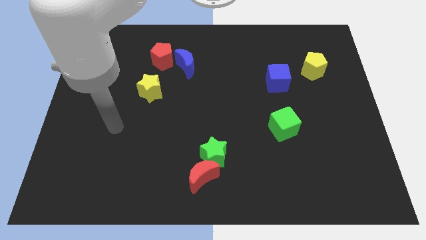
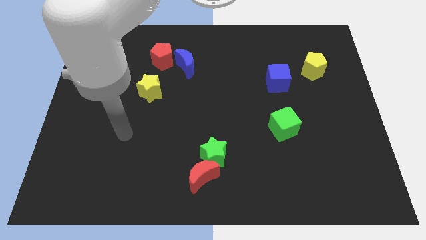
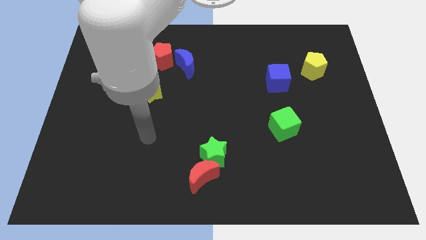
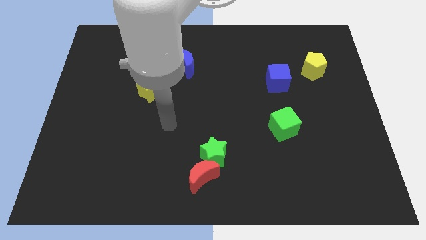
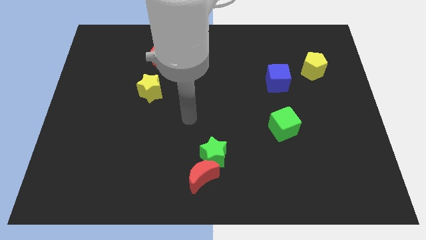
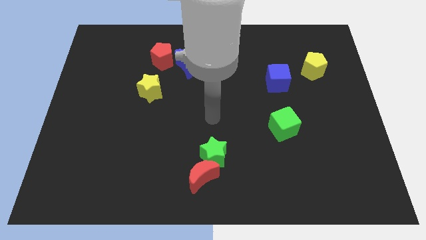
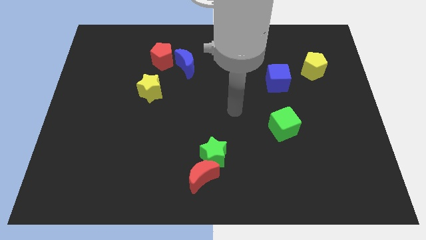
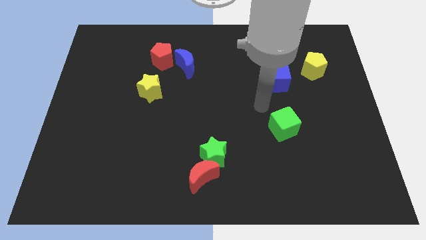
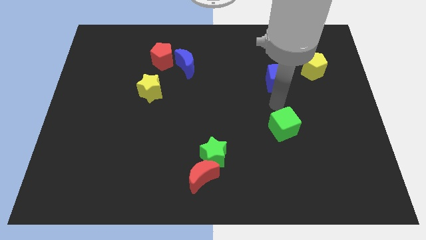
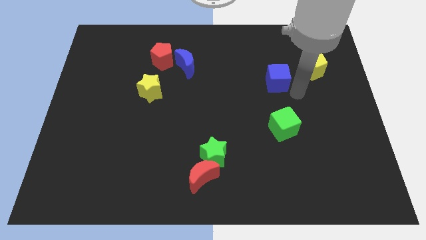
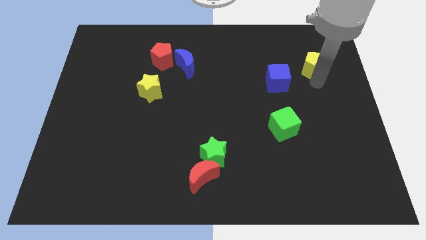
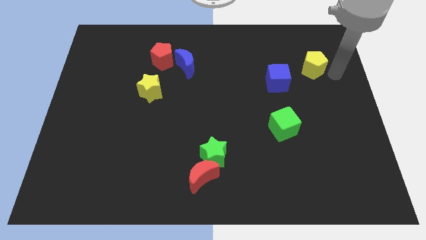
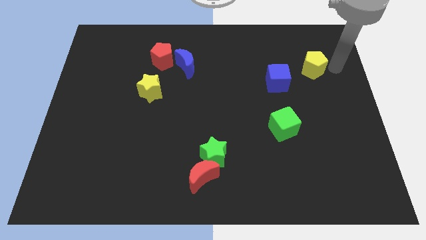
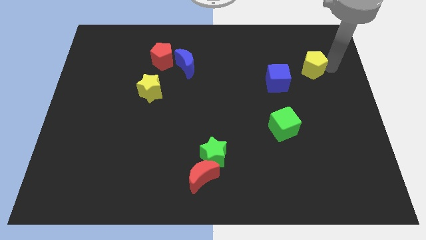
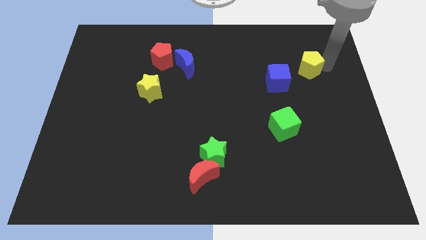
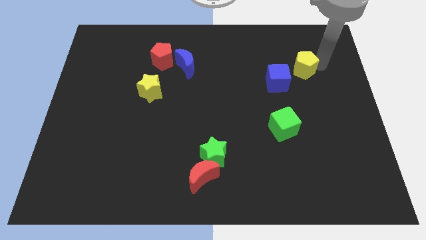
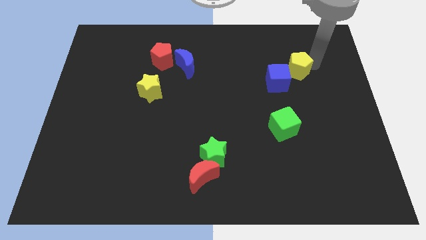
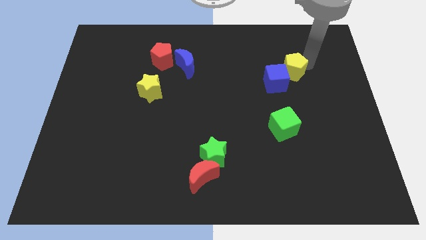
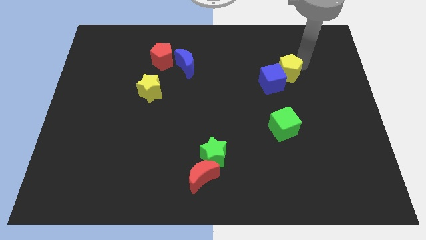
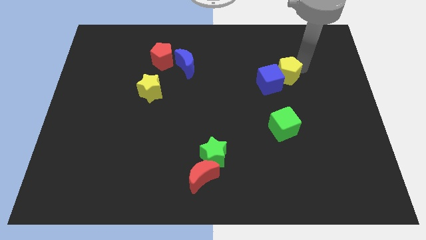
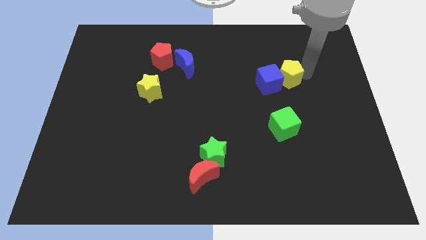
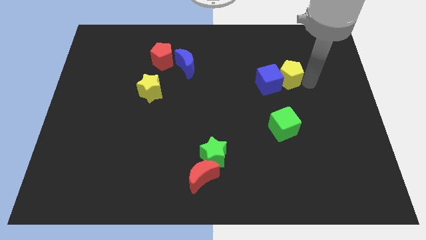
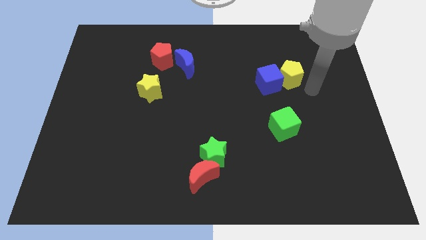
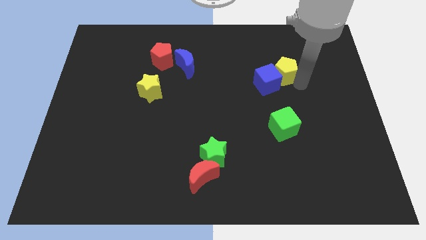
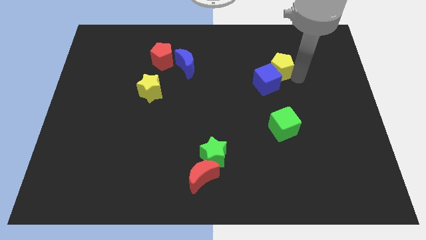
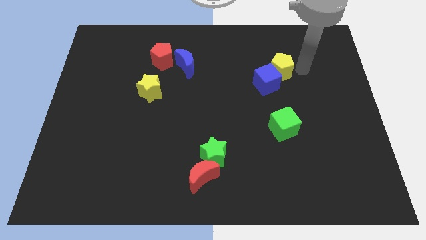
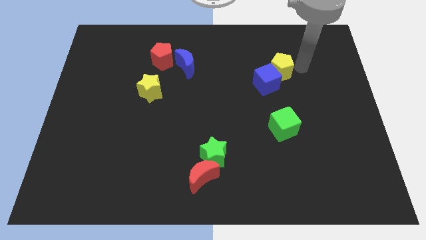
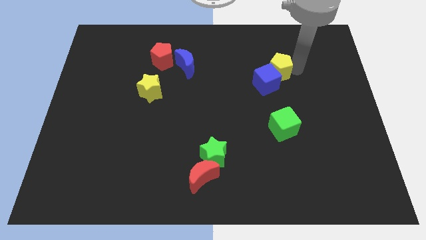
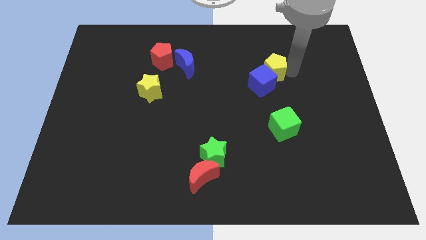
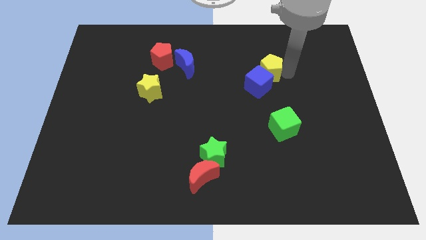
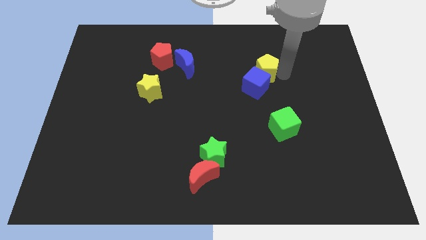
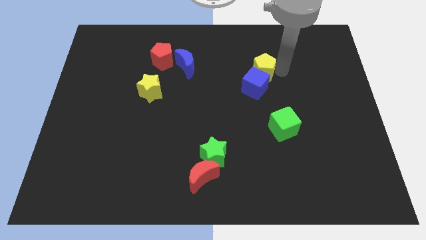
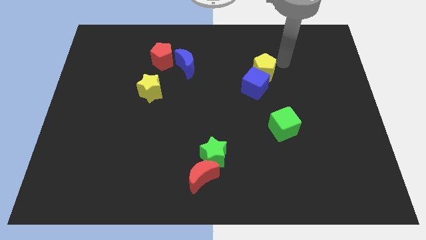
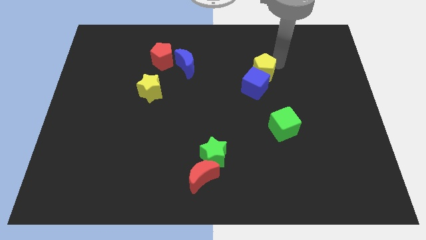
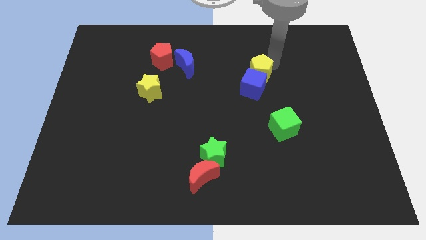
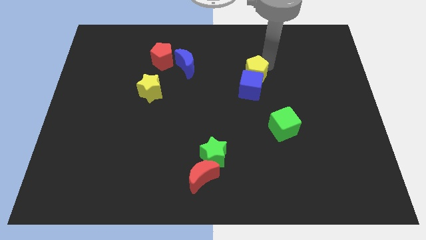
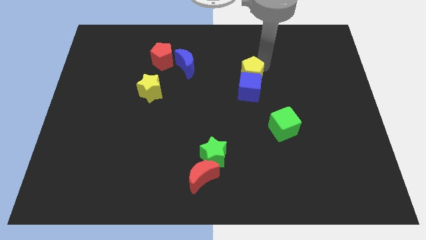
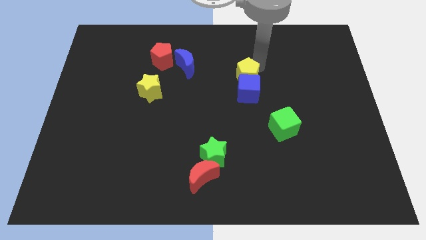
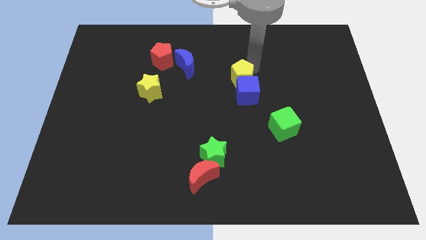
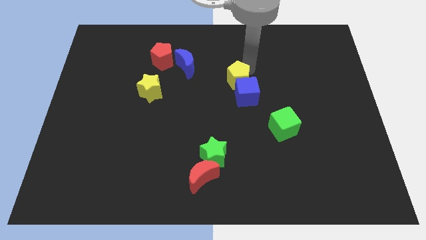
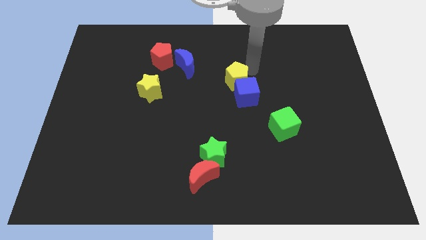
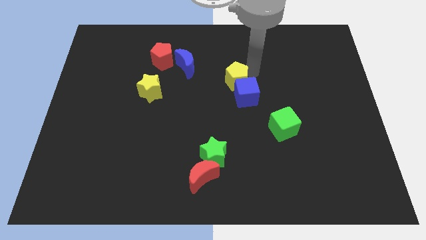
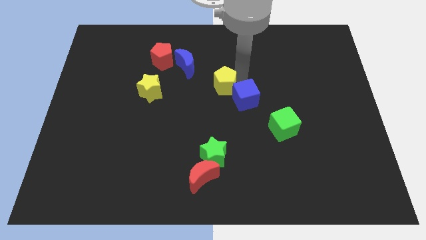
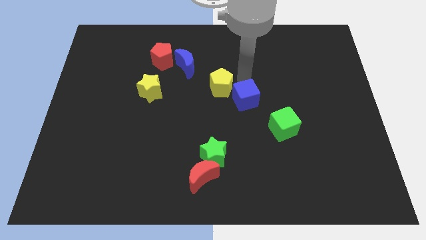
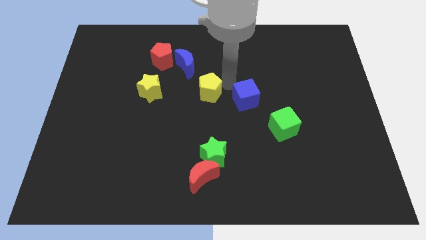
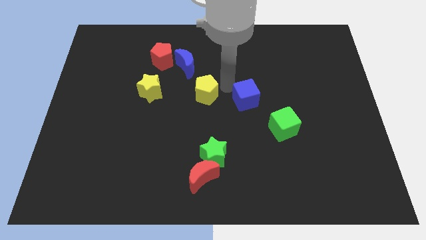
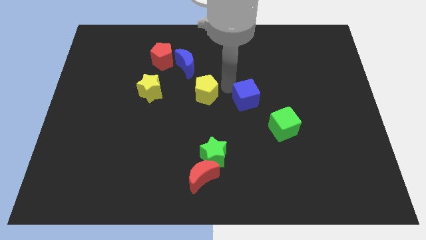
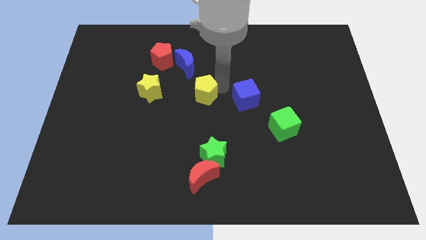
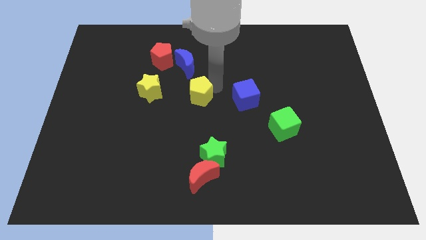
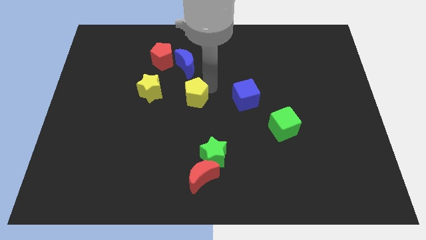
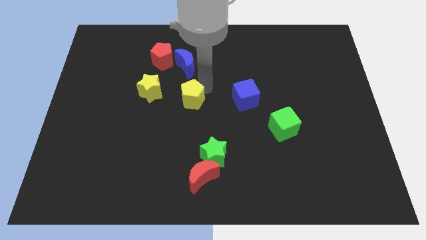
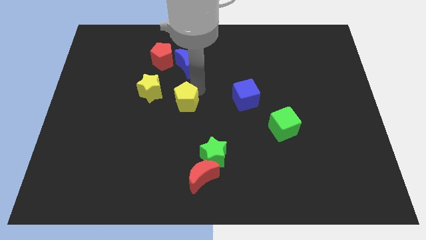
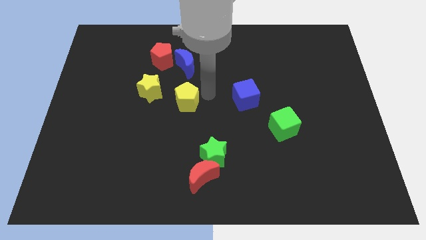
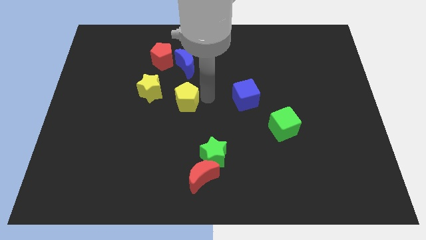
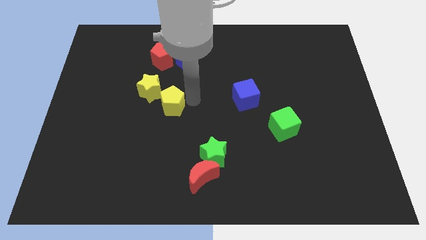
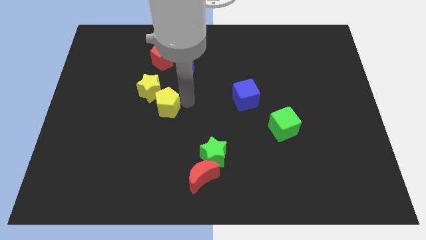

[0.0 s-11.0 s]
move the yellow pentagon below the red pentagon

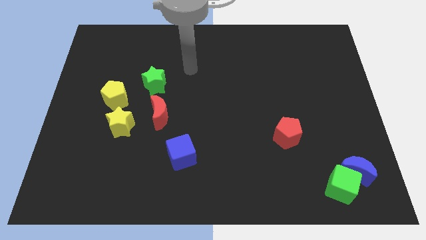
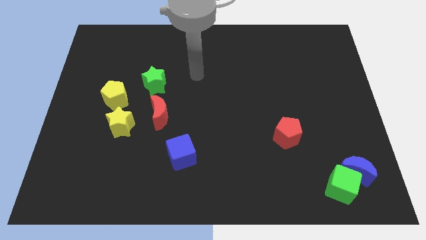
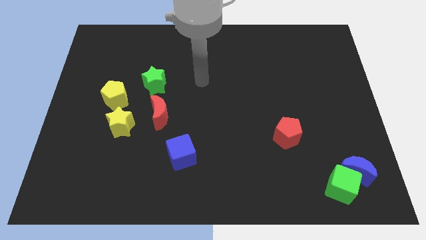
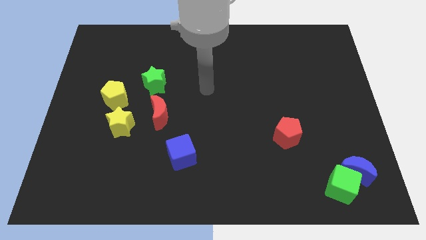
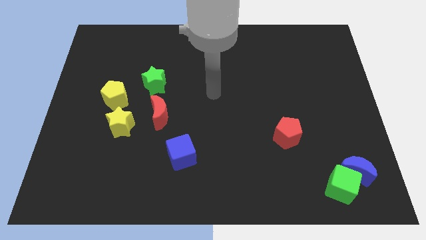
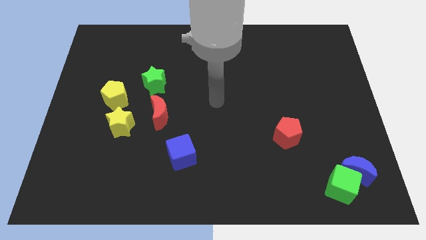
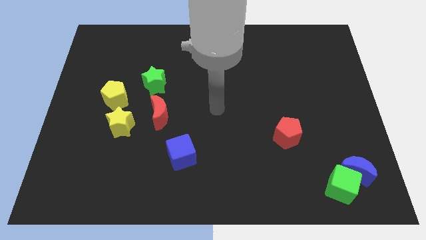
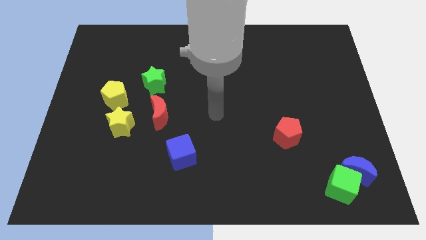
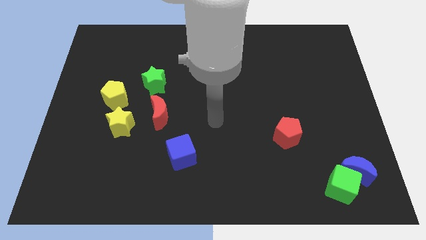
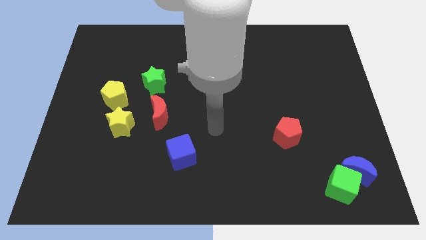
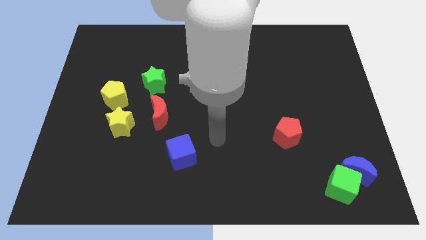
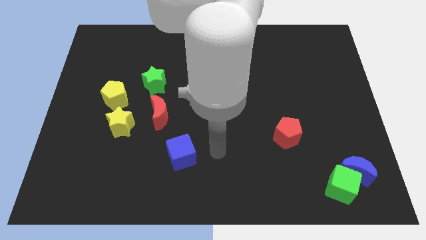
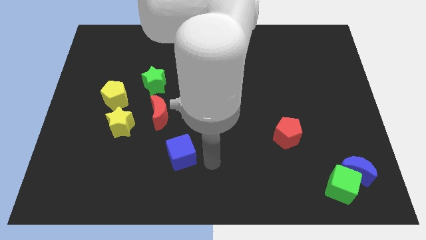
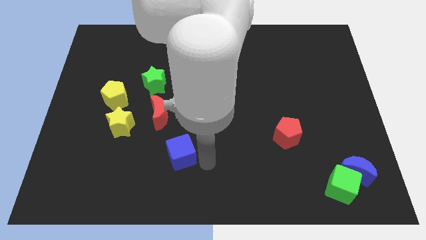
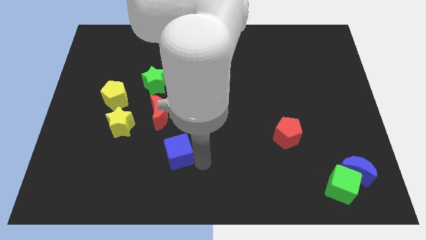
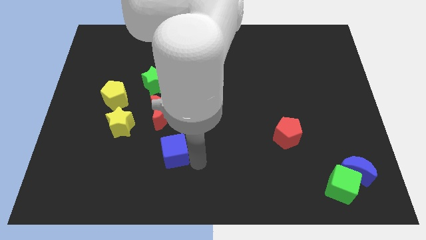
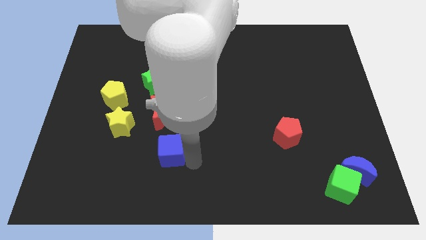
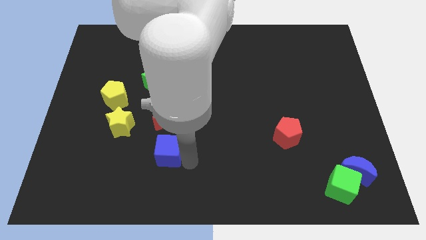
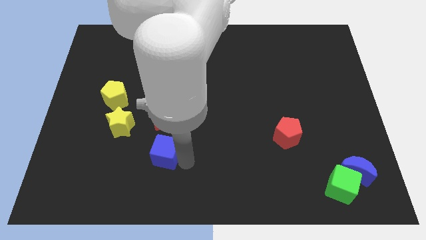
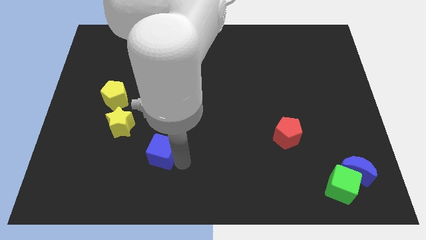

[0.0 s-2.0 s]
move the blue cube to the bottom right side of the yellow star

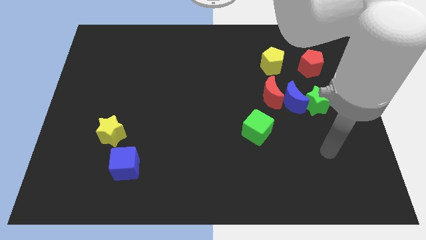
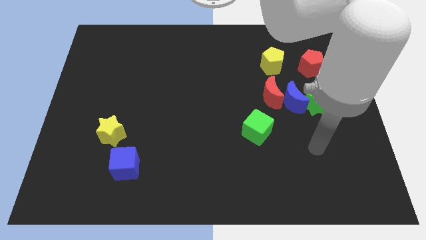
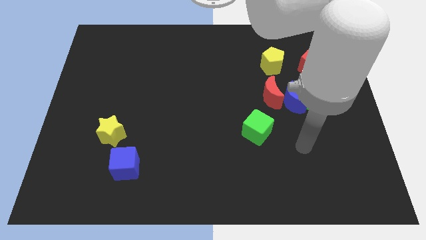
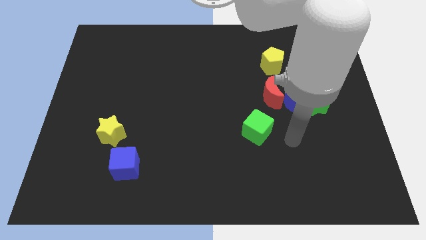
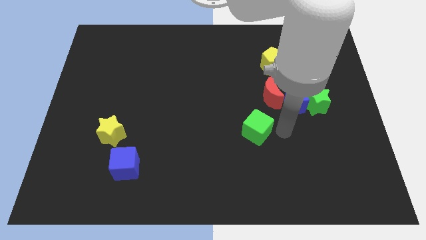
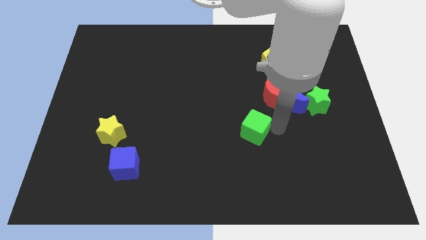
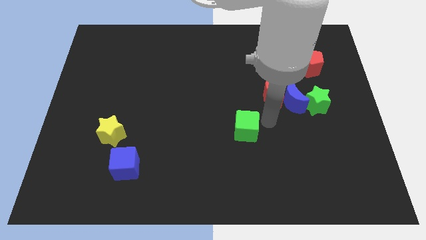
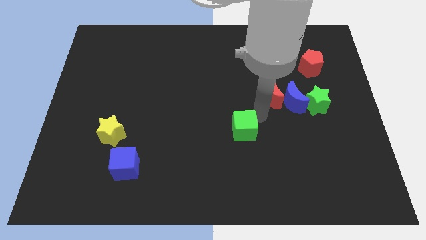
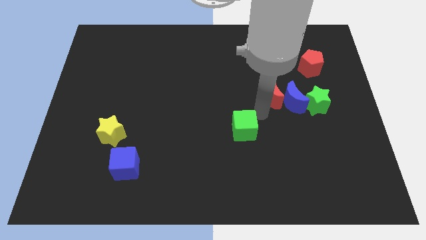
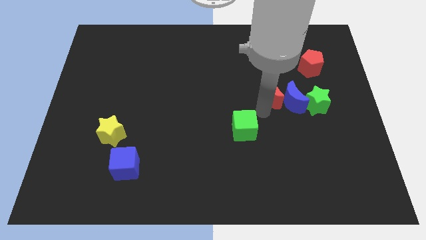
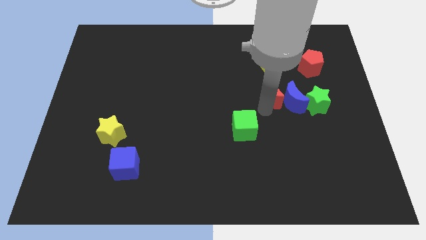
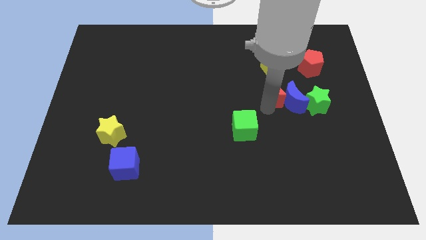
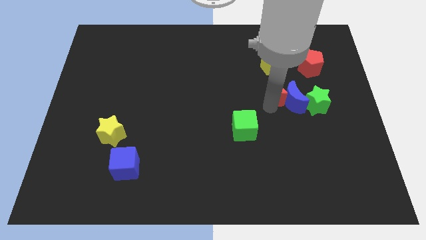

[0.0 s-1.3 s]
push the red moon above the blue moon
